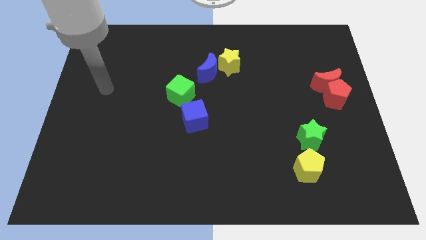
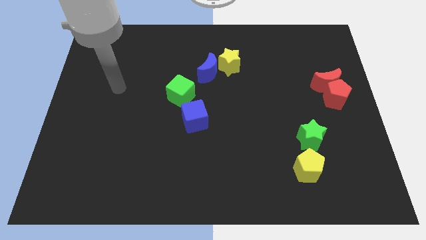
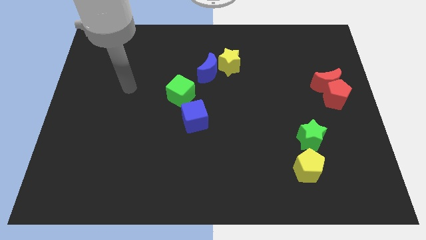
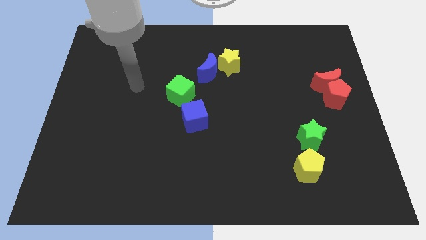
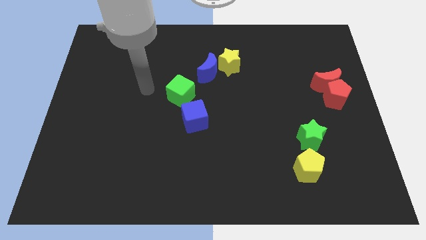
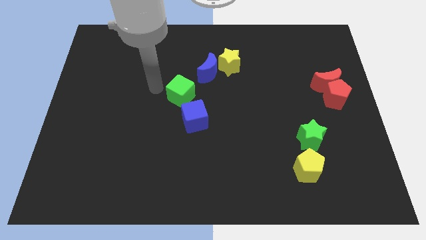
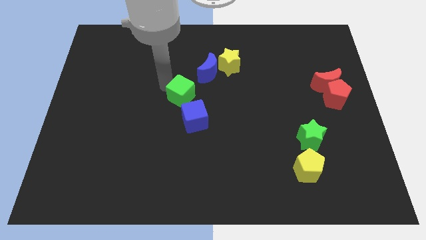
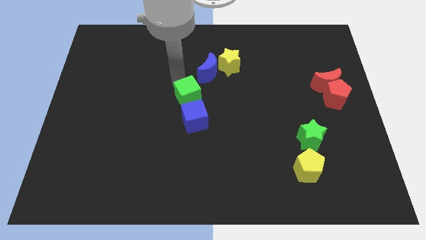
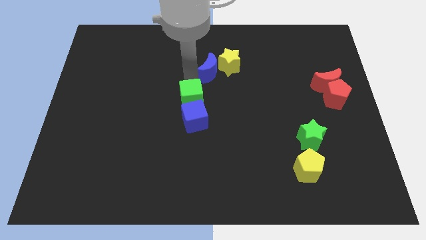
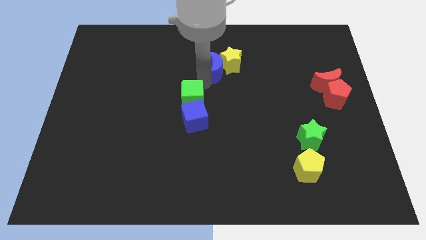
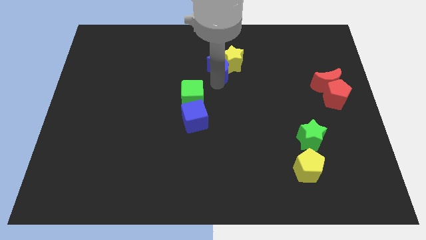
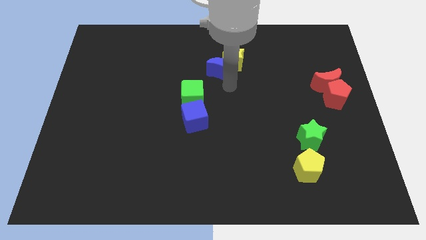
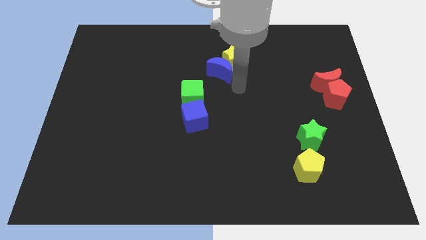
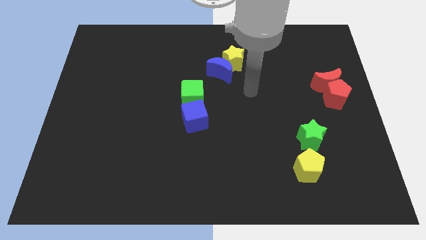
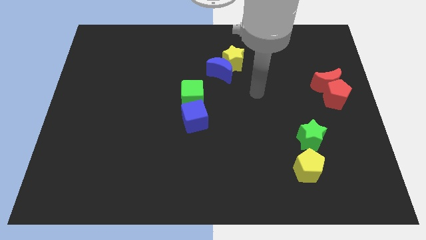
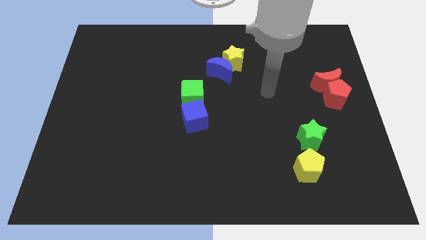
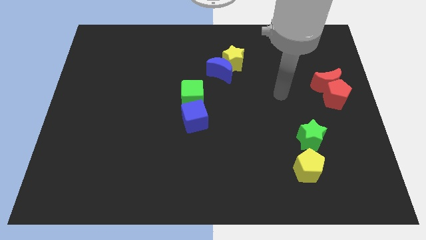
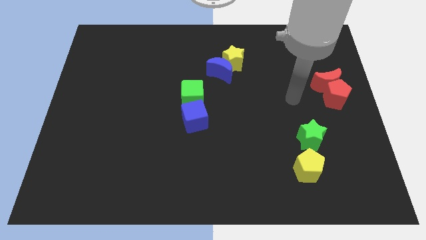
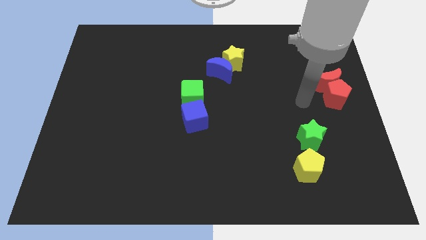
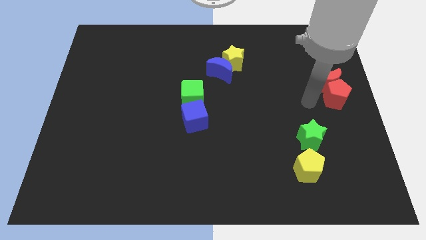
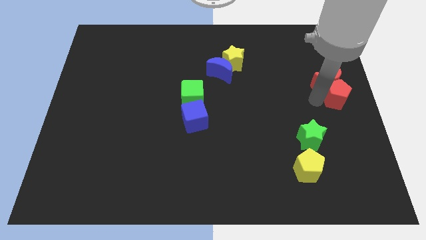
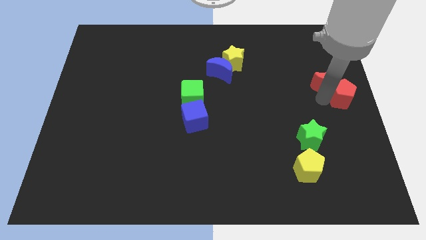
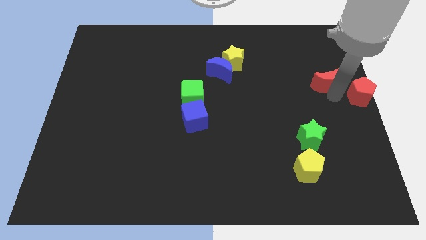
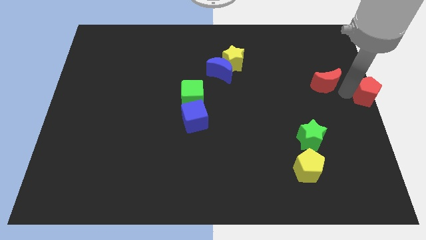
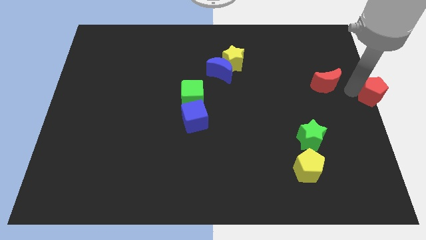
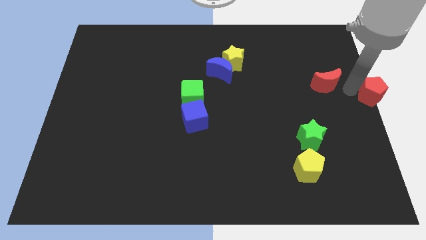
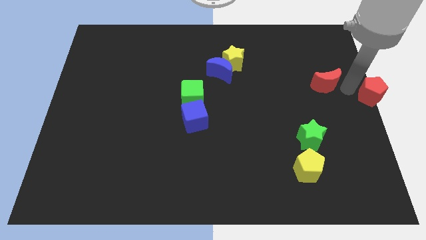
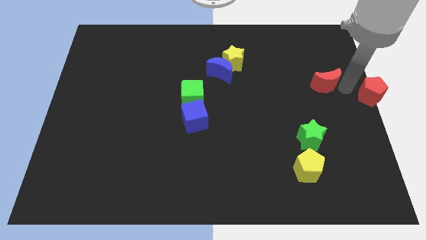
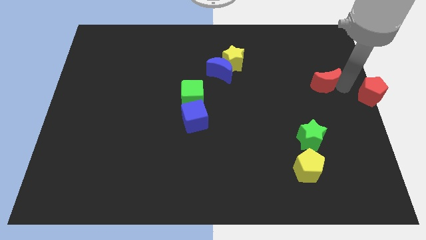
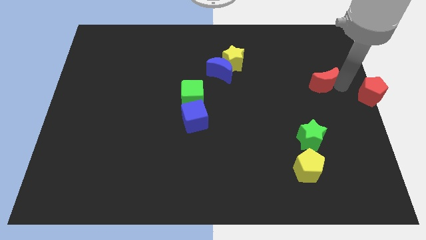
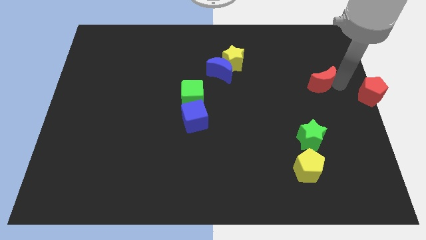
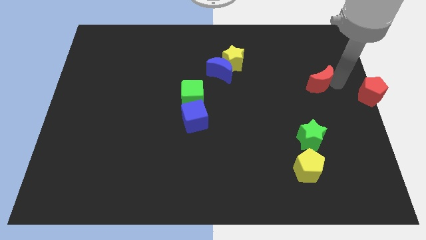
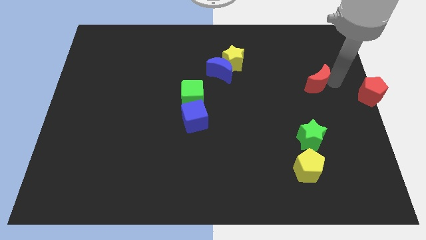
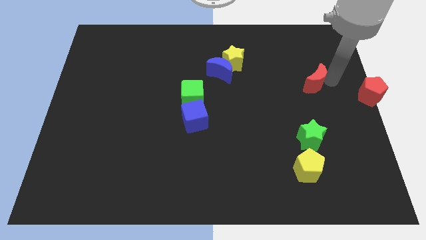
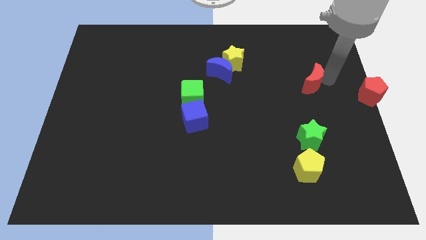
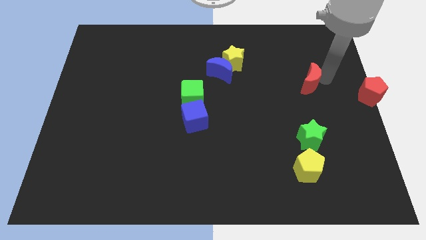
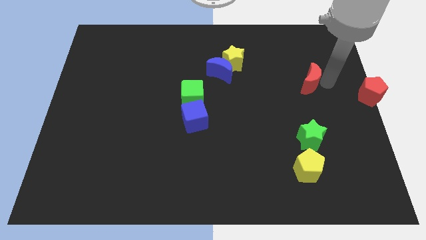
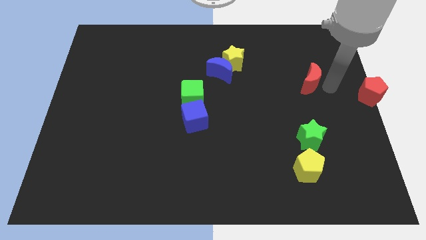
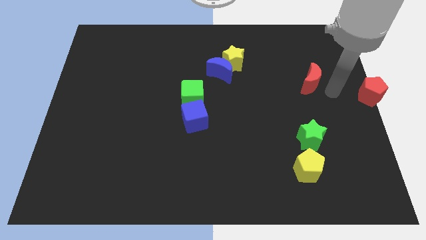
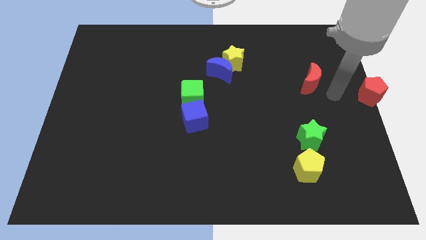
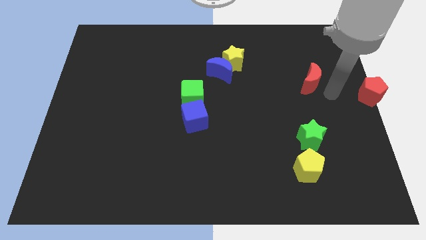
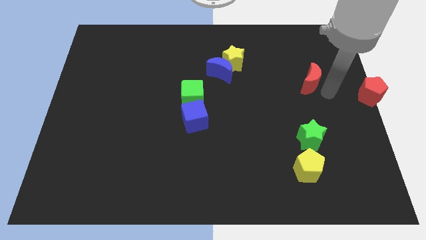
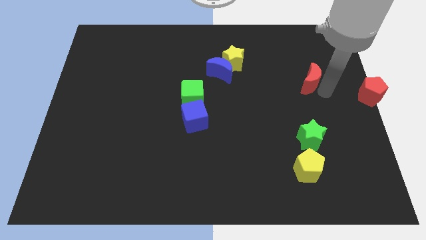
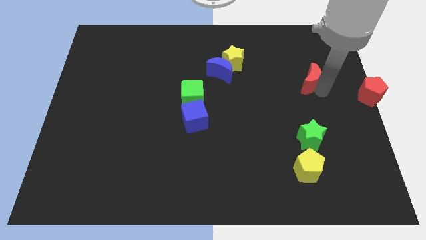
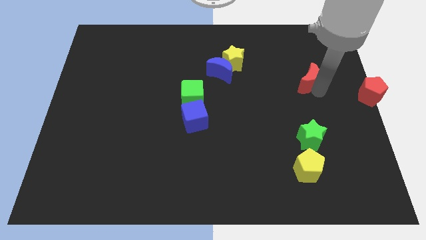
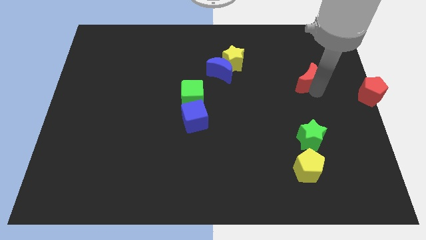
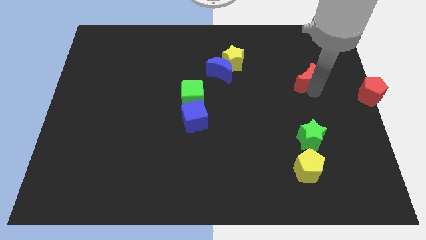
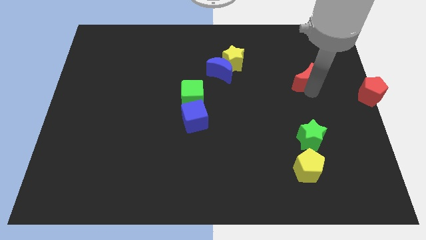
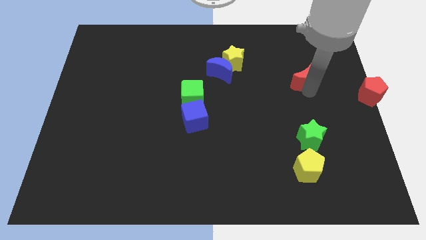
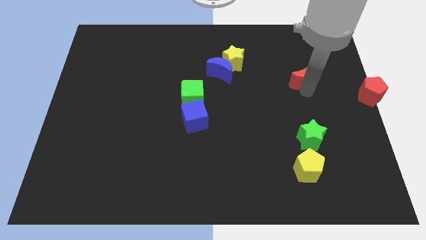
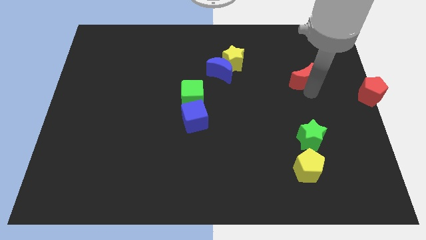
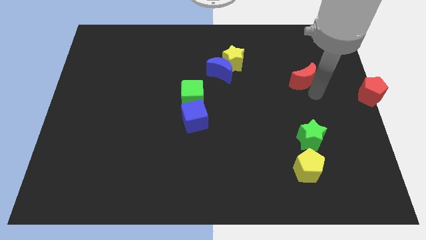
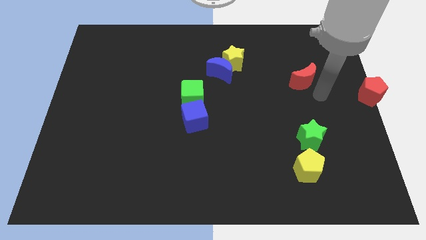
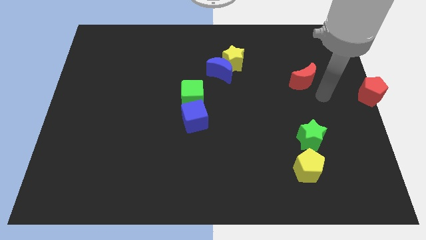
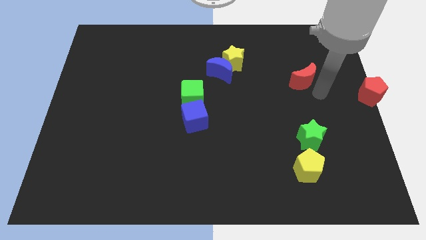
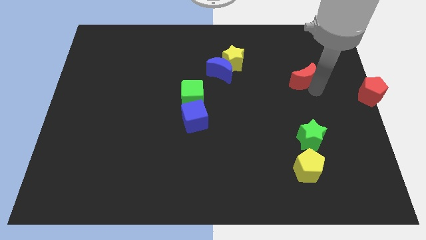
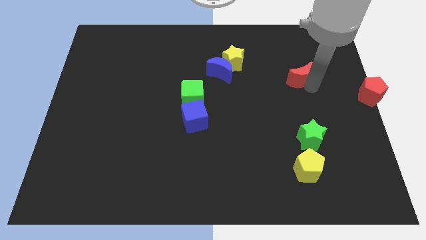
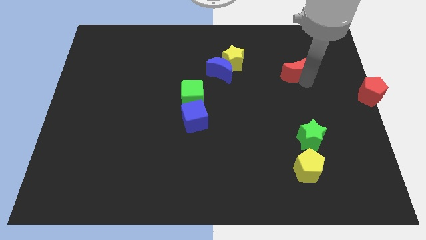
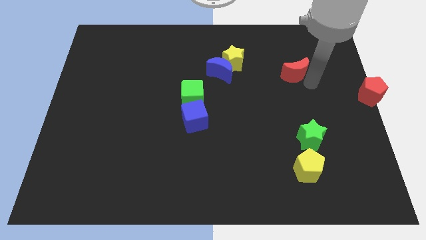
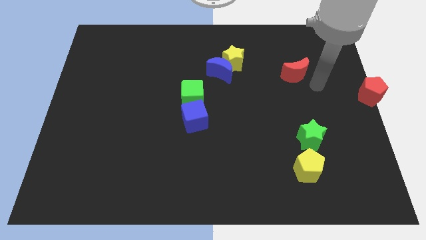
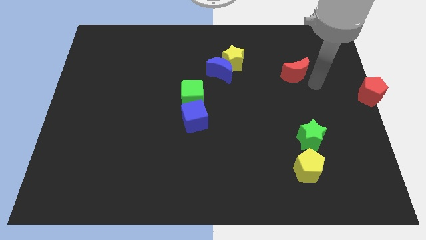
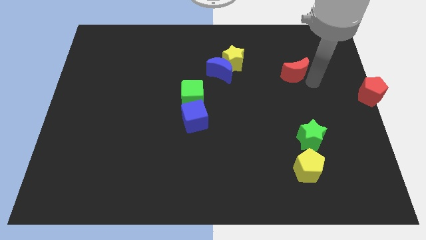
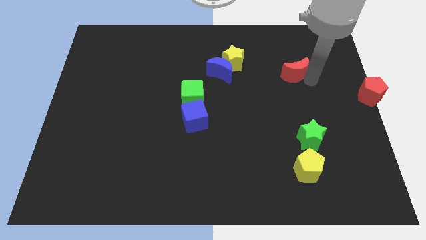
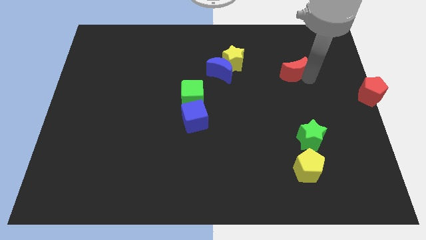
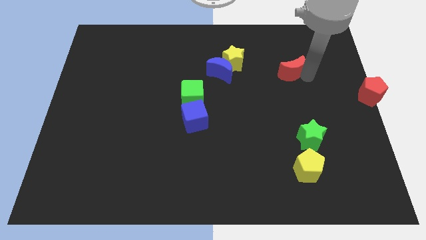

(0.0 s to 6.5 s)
move the red moon to the right of the yellow star
